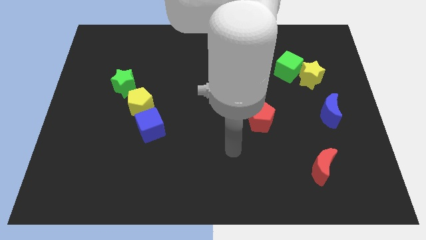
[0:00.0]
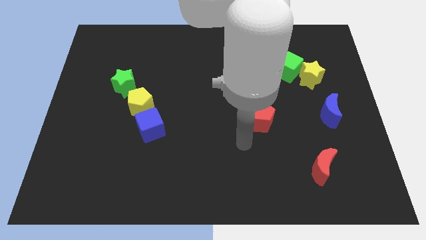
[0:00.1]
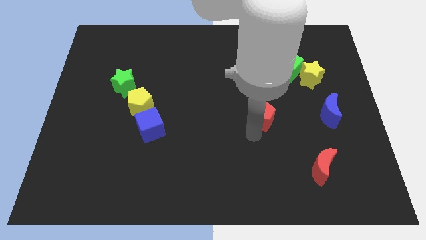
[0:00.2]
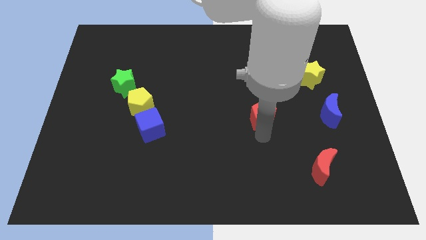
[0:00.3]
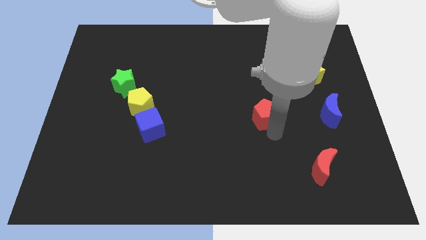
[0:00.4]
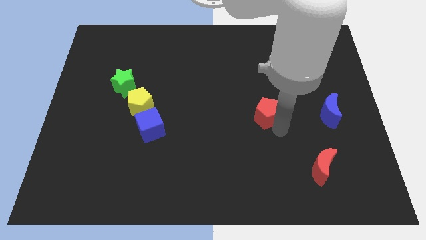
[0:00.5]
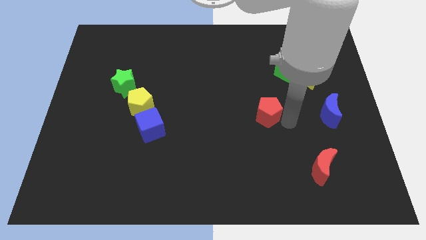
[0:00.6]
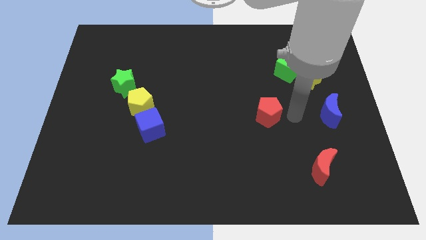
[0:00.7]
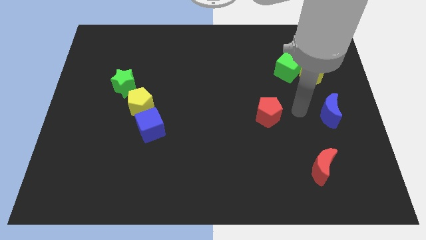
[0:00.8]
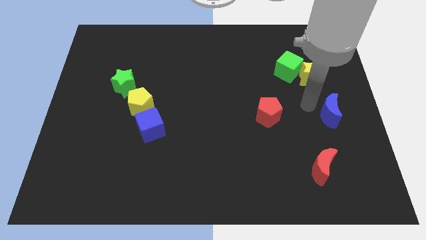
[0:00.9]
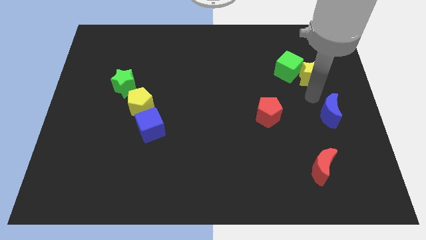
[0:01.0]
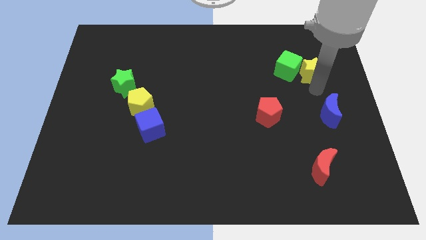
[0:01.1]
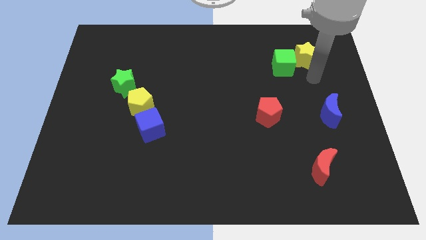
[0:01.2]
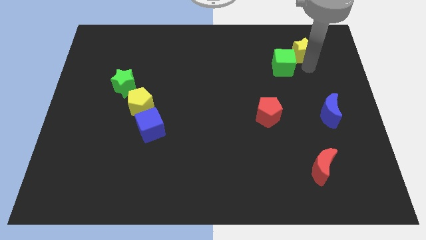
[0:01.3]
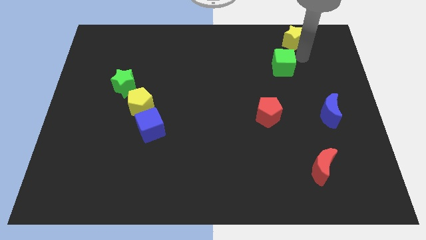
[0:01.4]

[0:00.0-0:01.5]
pull the green cube apart from the yellow star

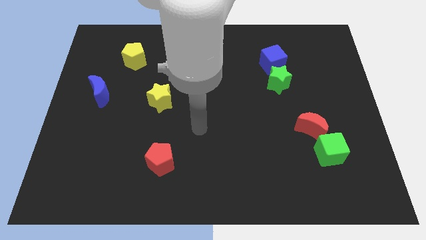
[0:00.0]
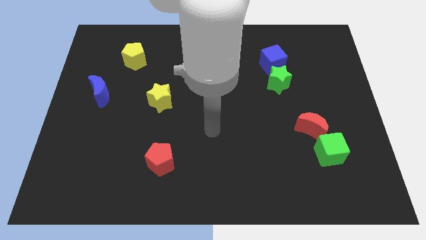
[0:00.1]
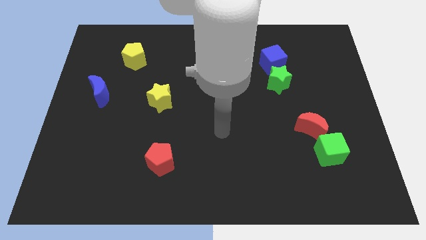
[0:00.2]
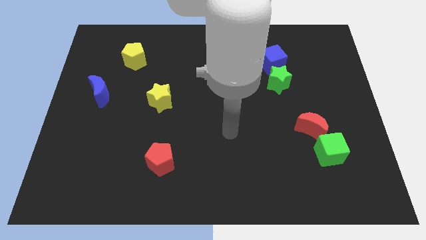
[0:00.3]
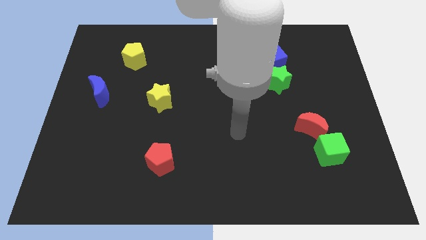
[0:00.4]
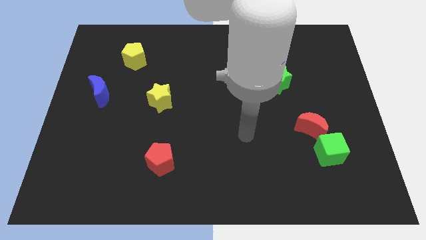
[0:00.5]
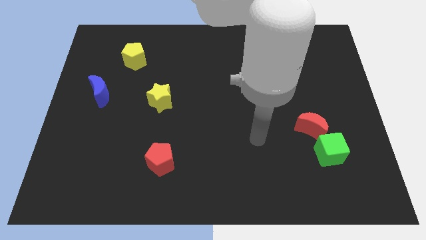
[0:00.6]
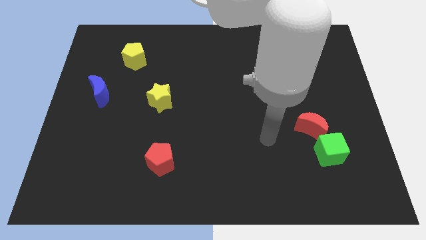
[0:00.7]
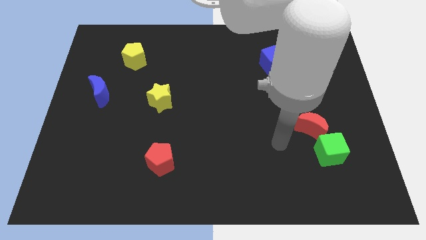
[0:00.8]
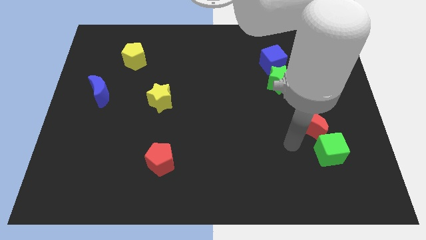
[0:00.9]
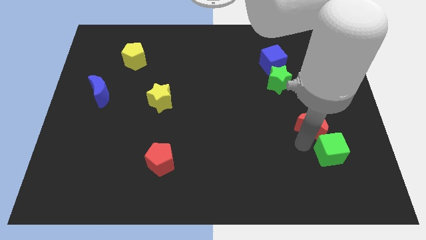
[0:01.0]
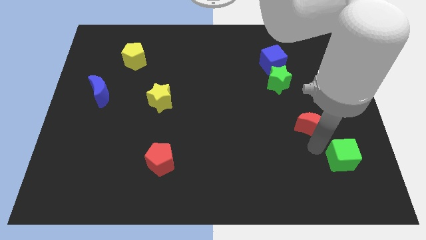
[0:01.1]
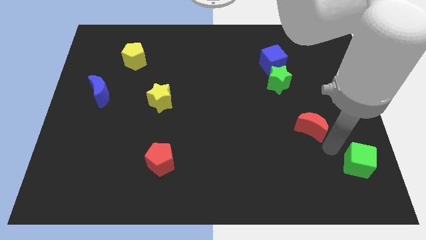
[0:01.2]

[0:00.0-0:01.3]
move the red moon away from the green cube

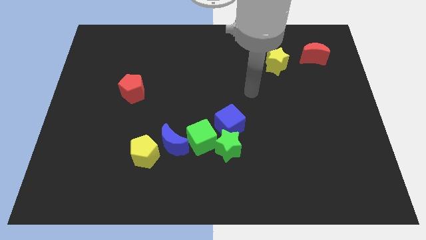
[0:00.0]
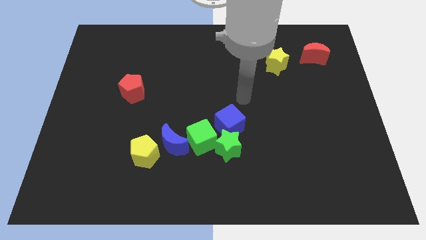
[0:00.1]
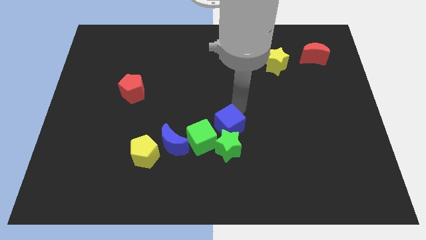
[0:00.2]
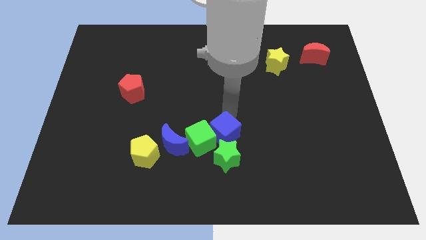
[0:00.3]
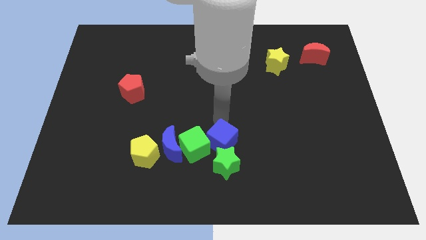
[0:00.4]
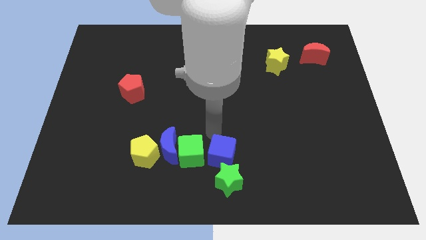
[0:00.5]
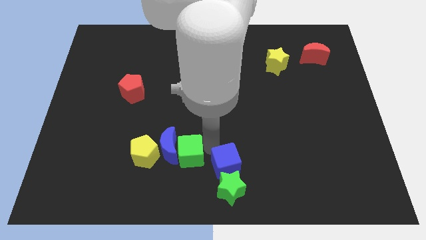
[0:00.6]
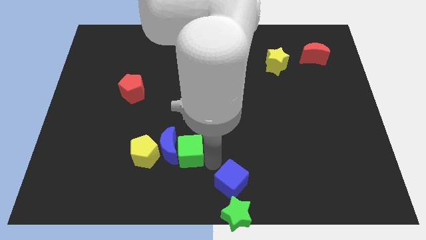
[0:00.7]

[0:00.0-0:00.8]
pull the green star apart from the green cube and blue cube

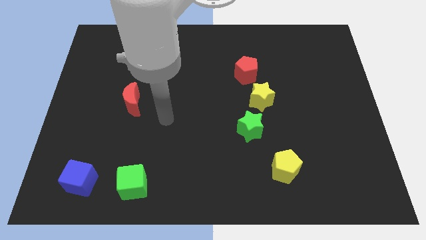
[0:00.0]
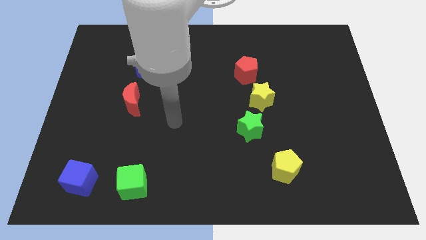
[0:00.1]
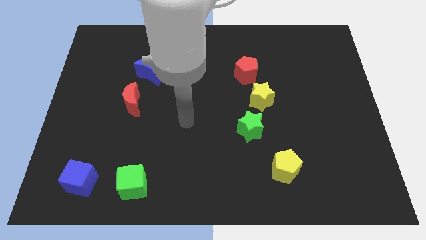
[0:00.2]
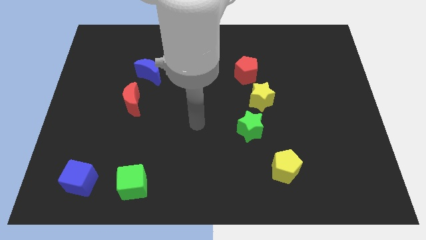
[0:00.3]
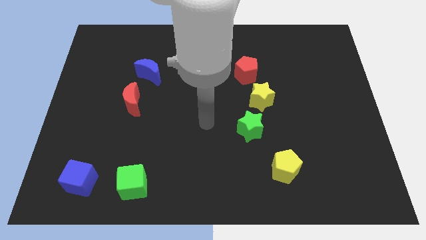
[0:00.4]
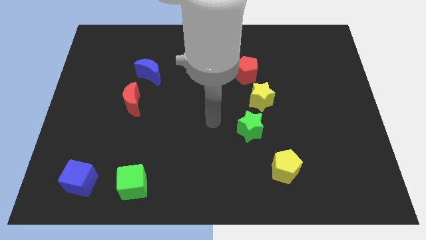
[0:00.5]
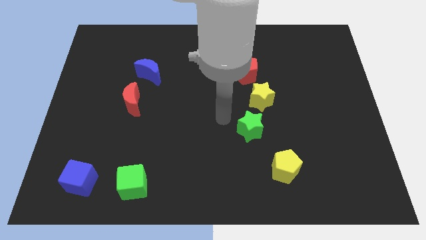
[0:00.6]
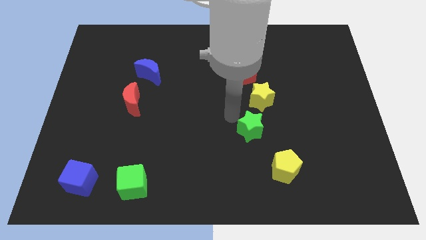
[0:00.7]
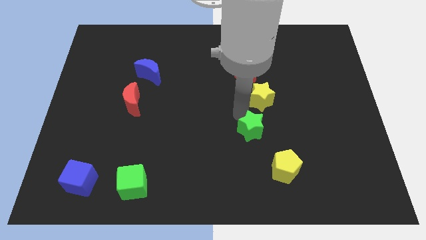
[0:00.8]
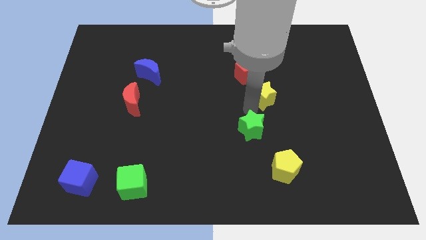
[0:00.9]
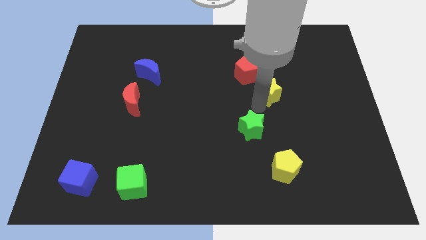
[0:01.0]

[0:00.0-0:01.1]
move the green star away from the yellow star

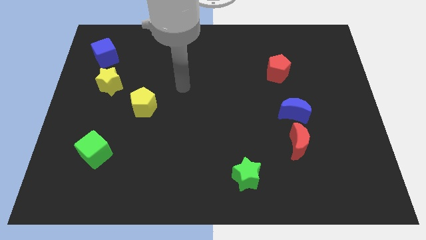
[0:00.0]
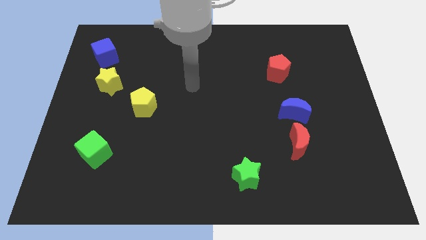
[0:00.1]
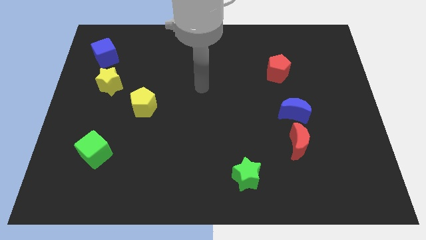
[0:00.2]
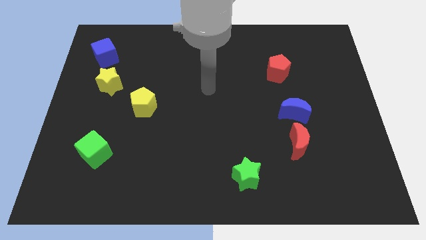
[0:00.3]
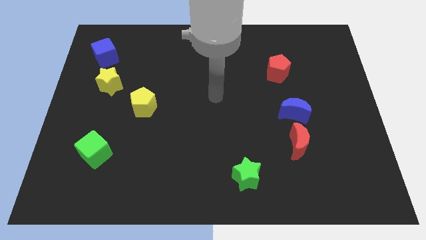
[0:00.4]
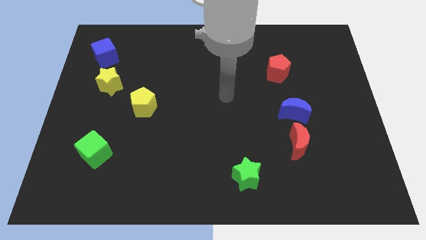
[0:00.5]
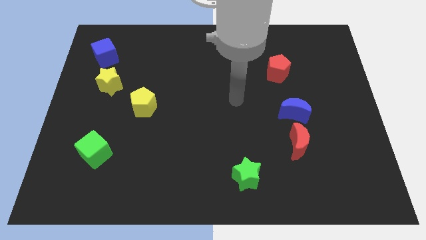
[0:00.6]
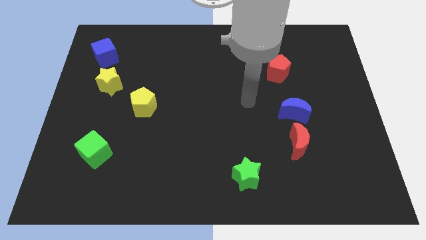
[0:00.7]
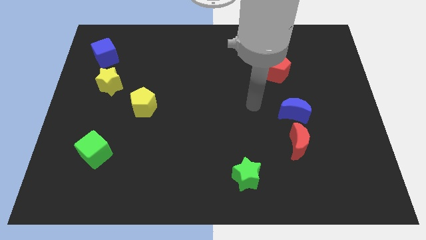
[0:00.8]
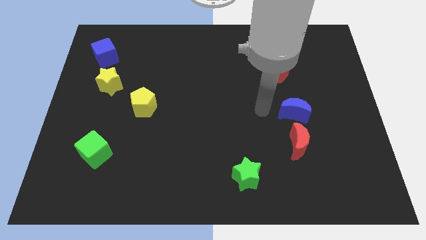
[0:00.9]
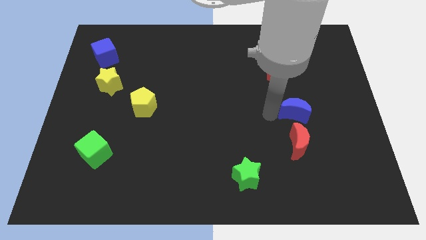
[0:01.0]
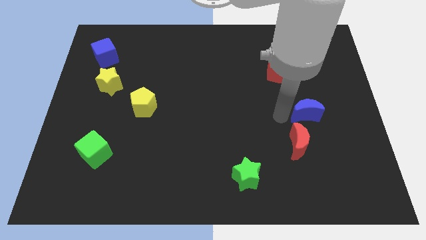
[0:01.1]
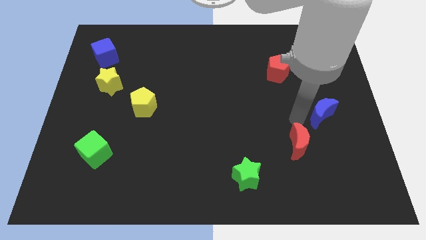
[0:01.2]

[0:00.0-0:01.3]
pull the red moon apart from the blue moon

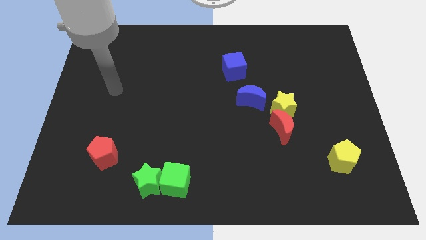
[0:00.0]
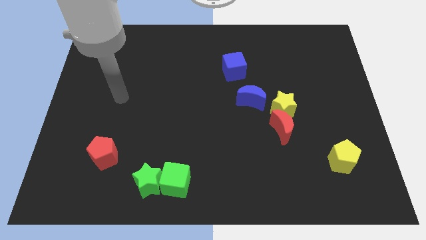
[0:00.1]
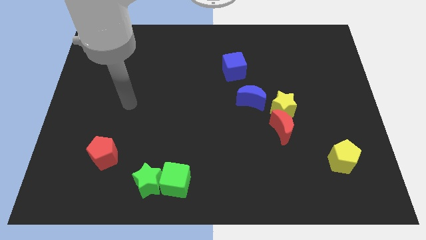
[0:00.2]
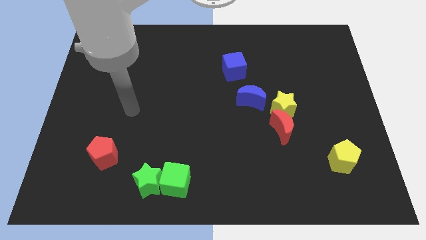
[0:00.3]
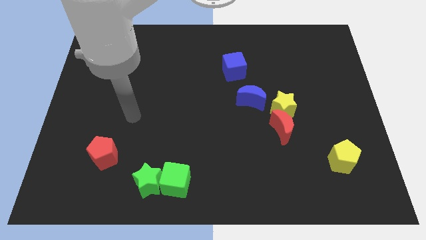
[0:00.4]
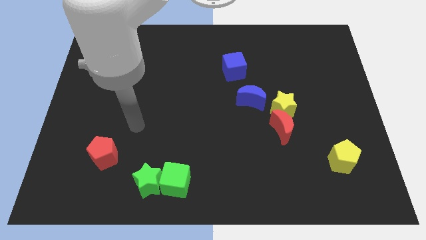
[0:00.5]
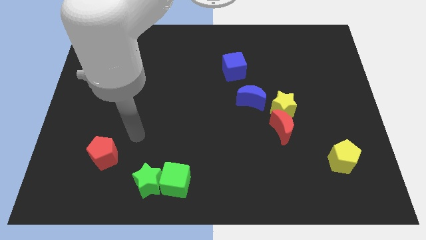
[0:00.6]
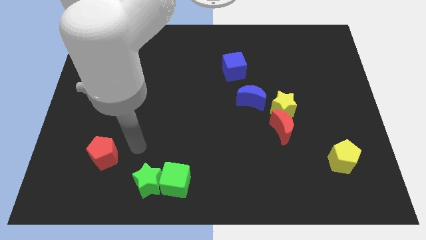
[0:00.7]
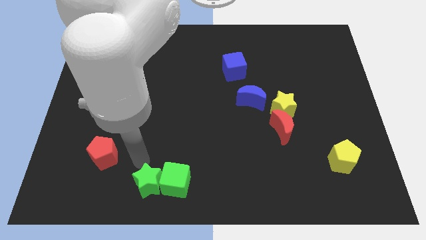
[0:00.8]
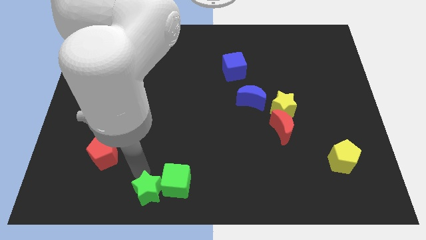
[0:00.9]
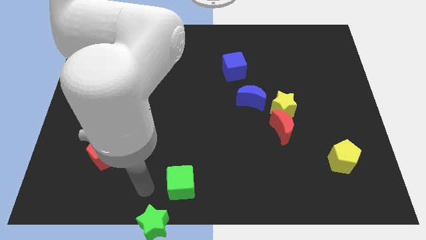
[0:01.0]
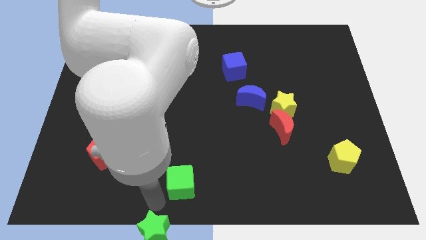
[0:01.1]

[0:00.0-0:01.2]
pull the green cube apart from the green star

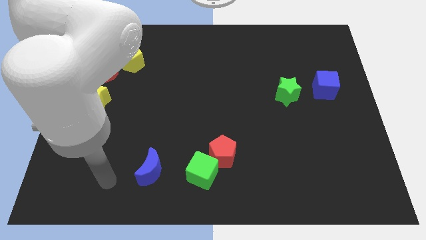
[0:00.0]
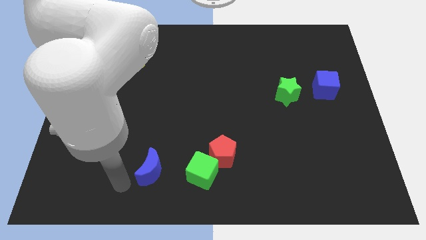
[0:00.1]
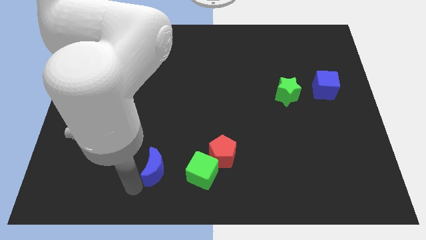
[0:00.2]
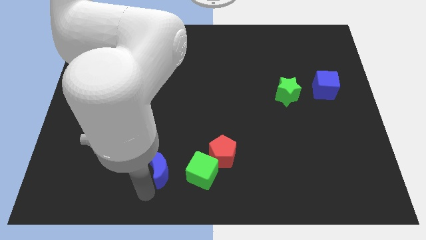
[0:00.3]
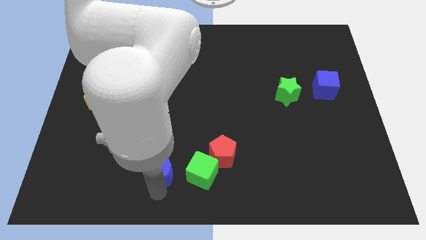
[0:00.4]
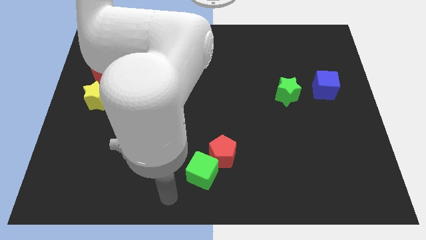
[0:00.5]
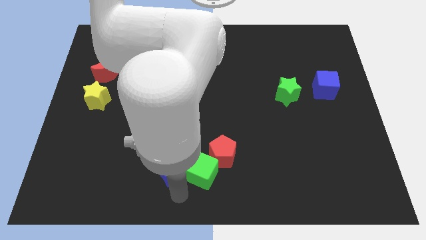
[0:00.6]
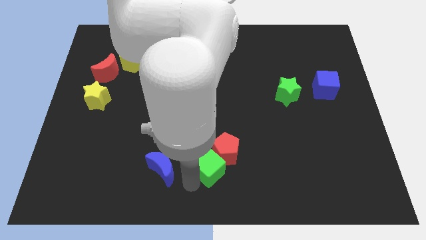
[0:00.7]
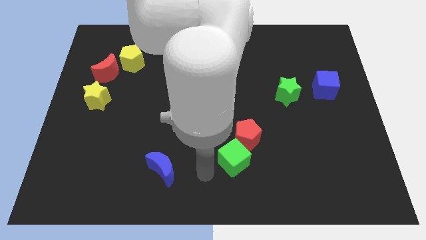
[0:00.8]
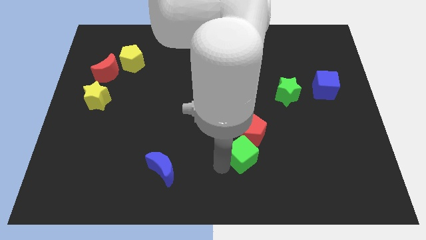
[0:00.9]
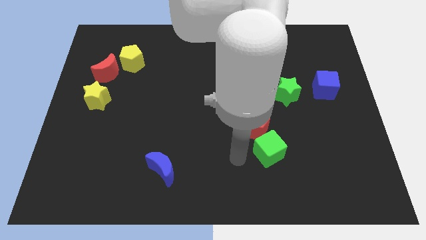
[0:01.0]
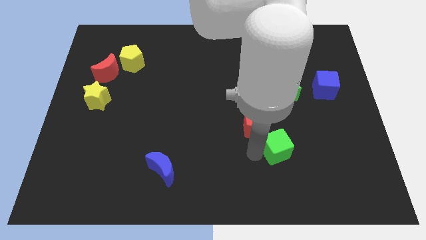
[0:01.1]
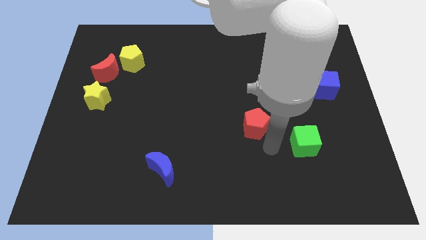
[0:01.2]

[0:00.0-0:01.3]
move the red pentagon away from the green cube

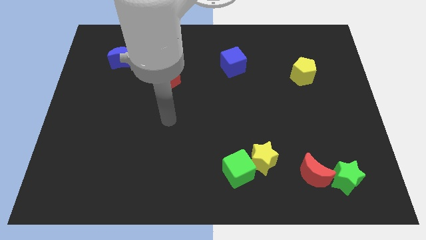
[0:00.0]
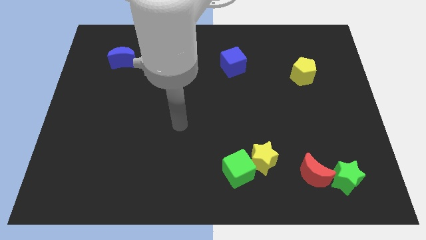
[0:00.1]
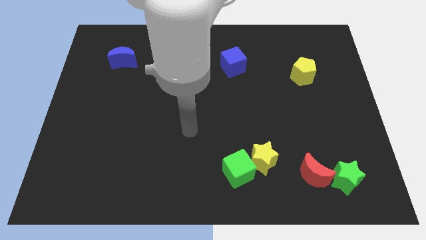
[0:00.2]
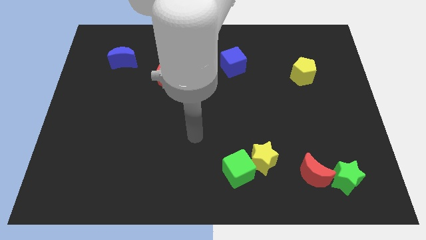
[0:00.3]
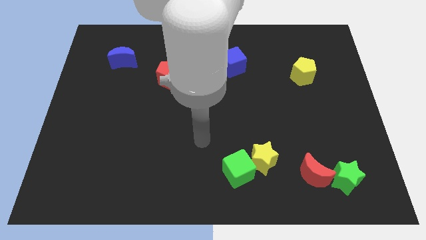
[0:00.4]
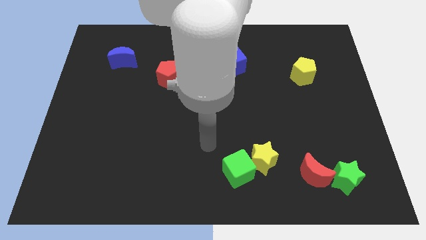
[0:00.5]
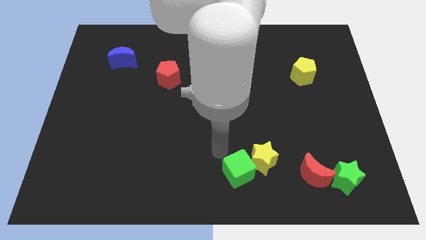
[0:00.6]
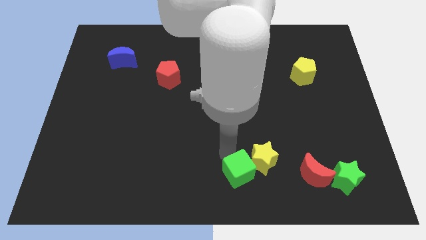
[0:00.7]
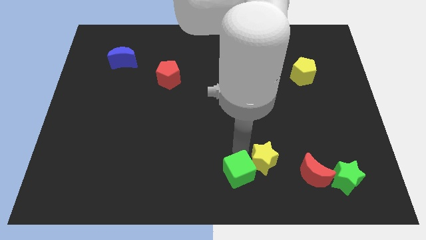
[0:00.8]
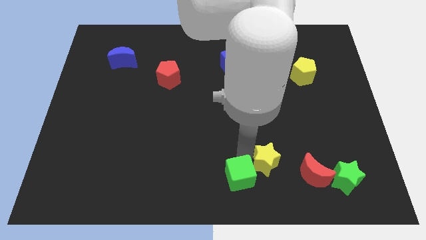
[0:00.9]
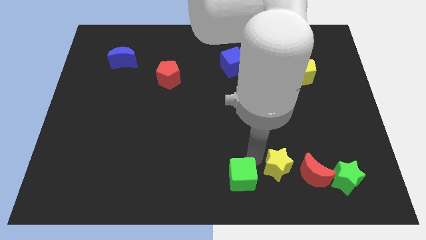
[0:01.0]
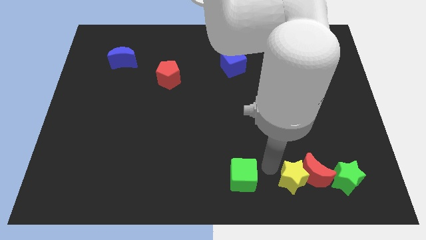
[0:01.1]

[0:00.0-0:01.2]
move the green cube away from the yellow star
